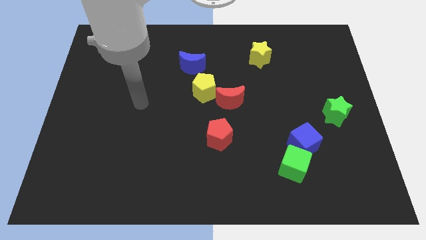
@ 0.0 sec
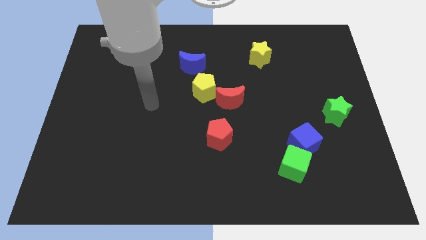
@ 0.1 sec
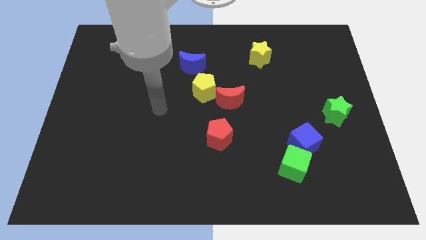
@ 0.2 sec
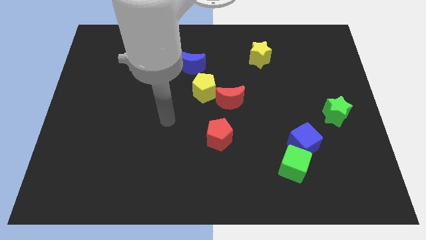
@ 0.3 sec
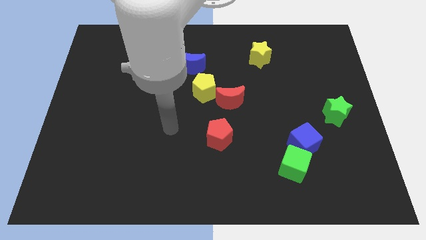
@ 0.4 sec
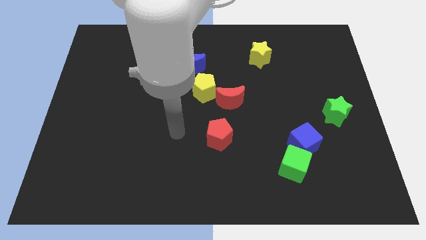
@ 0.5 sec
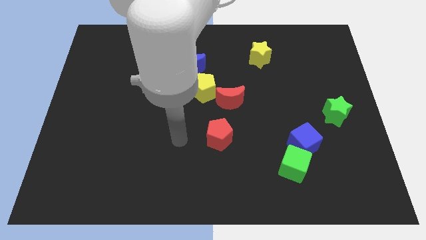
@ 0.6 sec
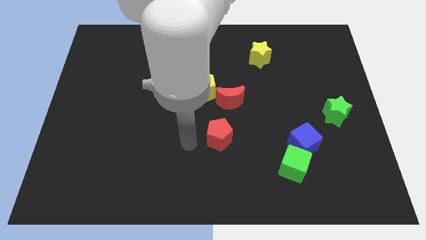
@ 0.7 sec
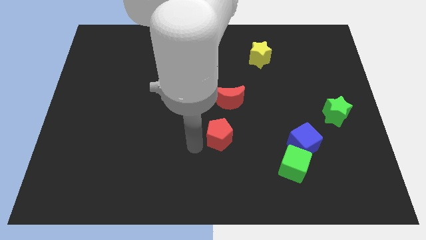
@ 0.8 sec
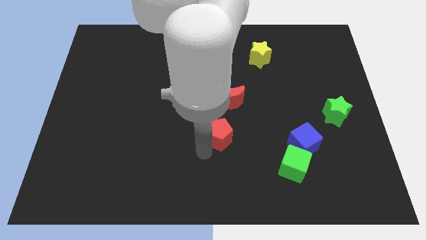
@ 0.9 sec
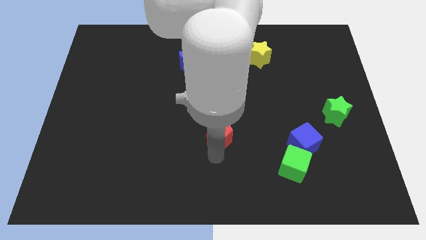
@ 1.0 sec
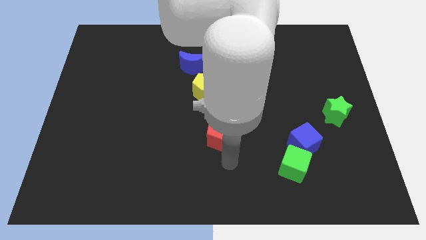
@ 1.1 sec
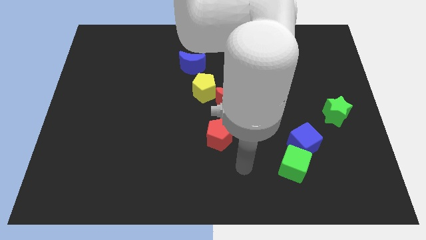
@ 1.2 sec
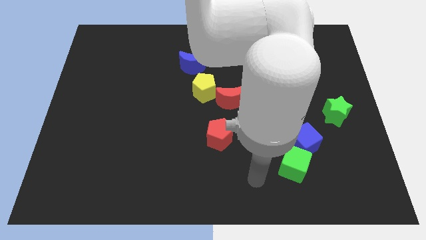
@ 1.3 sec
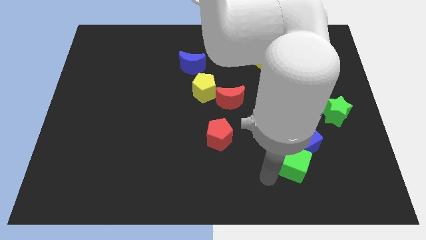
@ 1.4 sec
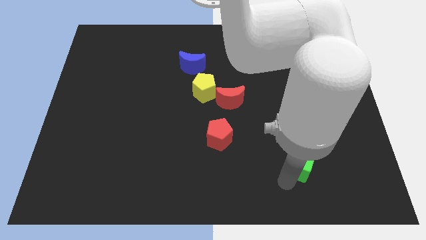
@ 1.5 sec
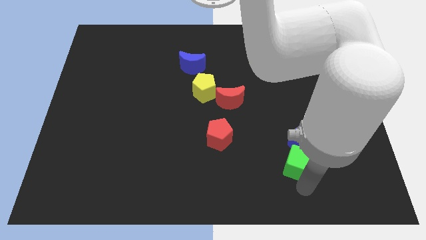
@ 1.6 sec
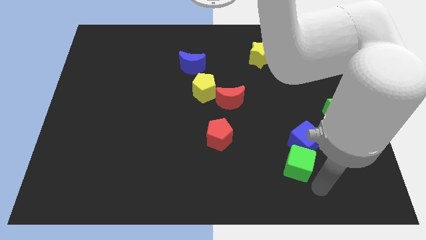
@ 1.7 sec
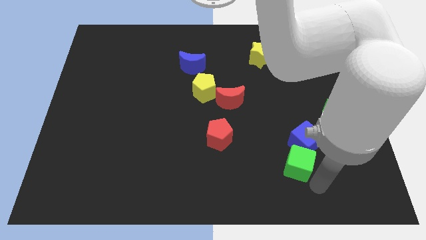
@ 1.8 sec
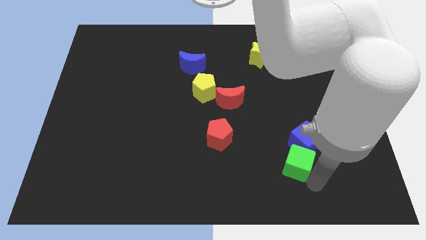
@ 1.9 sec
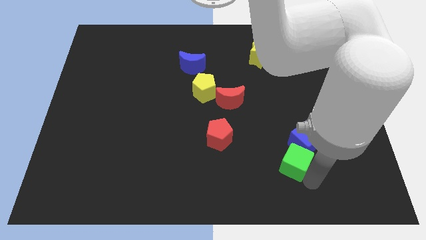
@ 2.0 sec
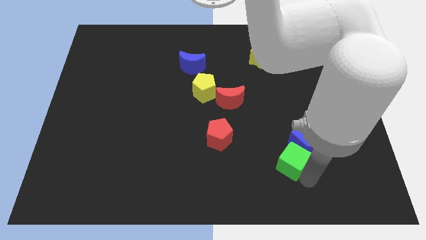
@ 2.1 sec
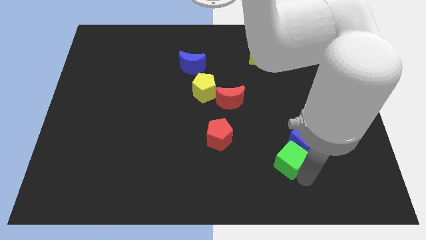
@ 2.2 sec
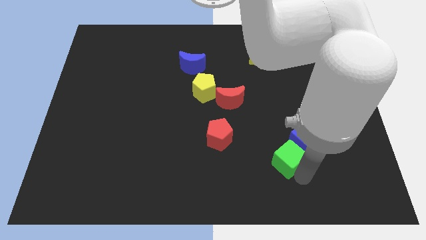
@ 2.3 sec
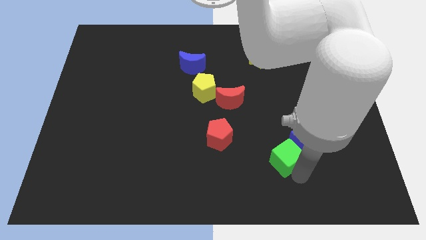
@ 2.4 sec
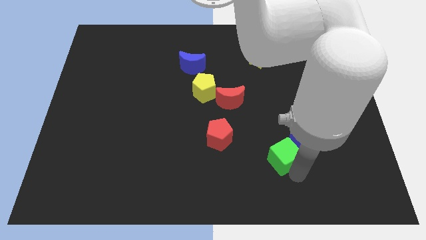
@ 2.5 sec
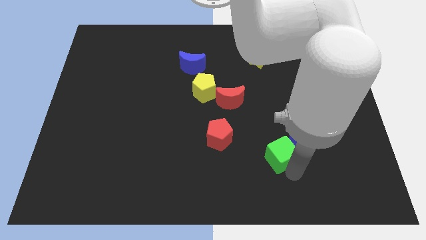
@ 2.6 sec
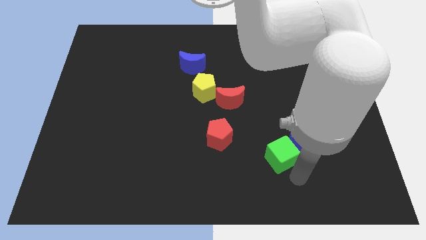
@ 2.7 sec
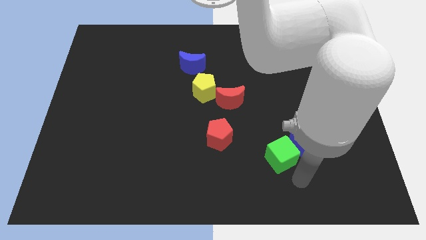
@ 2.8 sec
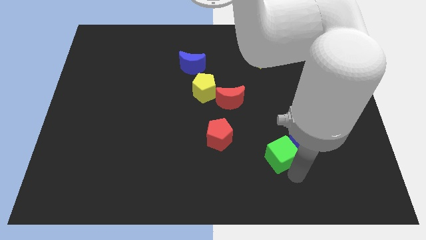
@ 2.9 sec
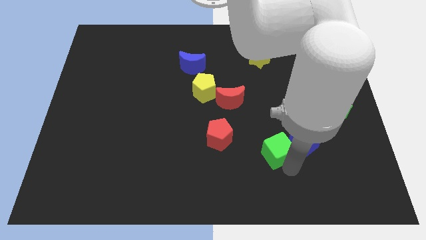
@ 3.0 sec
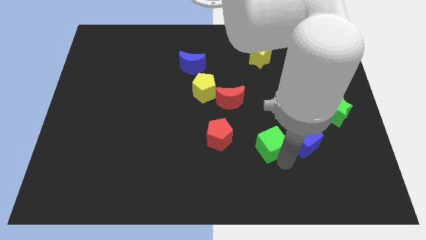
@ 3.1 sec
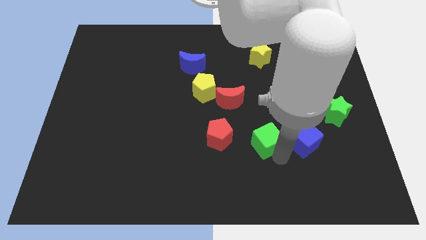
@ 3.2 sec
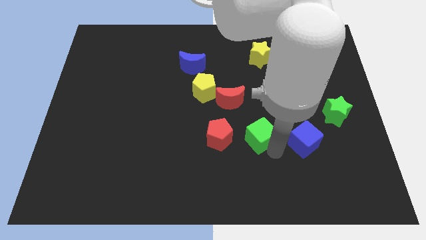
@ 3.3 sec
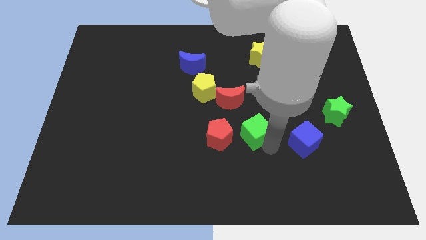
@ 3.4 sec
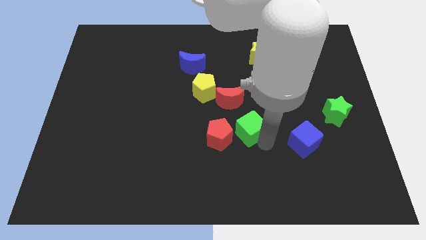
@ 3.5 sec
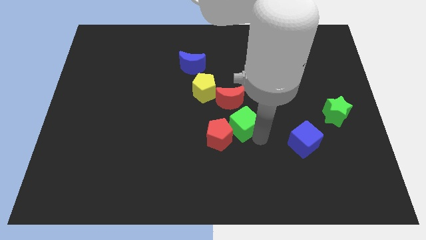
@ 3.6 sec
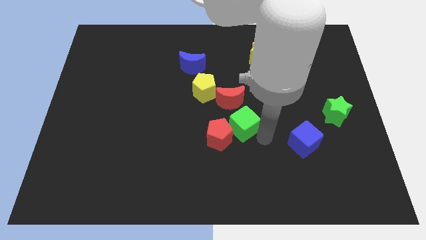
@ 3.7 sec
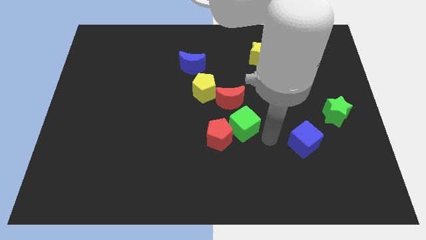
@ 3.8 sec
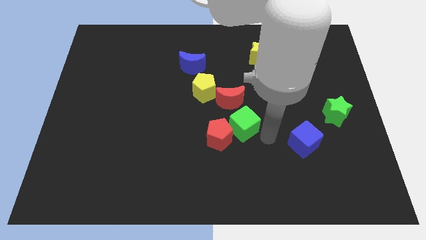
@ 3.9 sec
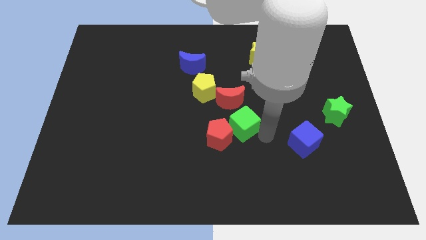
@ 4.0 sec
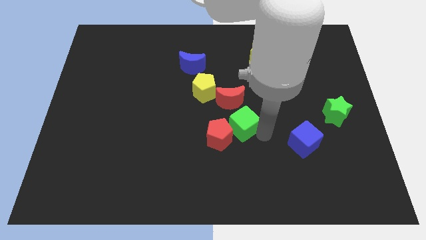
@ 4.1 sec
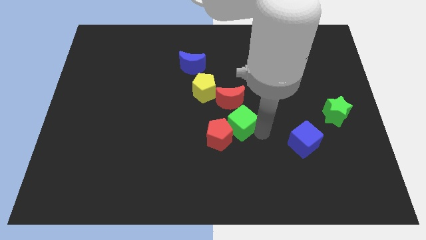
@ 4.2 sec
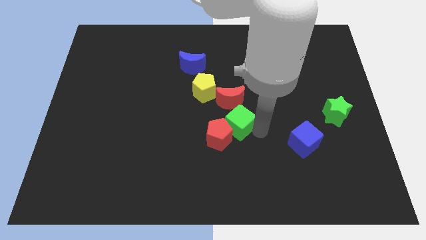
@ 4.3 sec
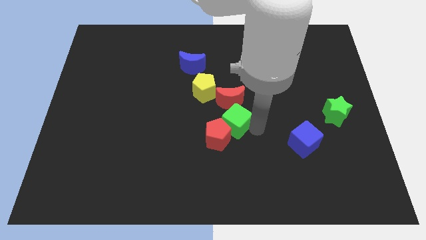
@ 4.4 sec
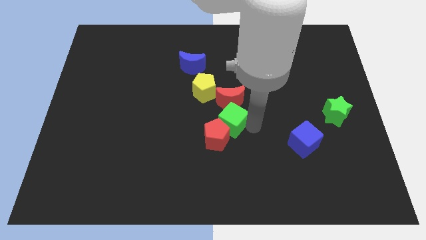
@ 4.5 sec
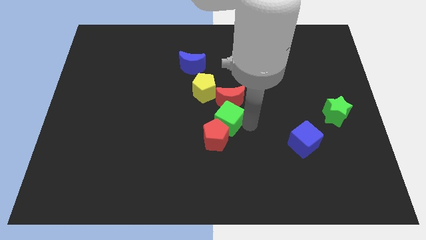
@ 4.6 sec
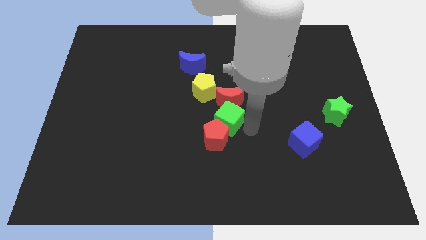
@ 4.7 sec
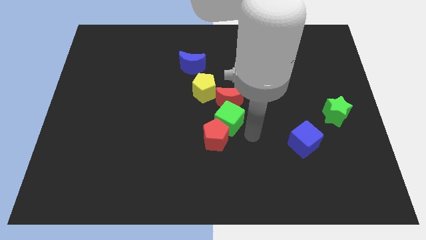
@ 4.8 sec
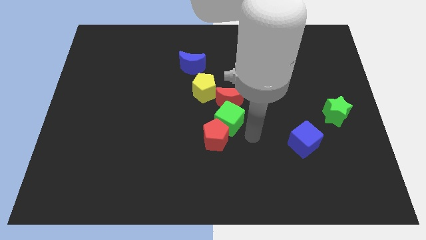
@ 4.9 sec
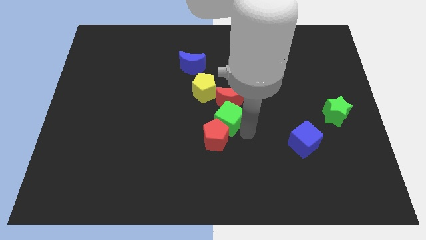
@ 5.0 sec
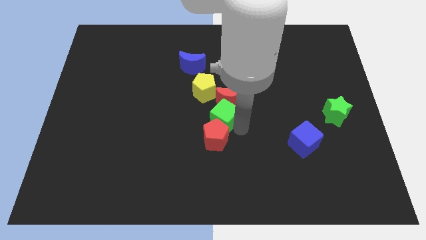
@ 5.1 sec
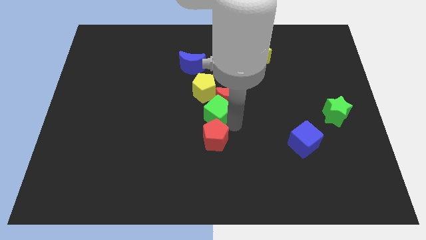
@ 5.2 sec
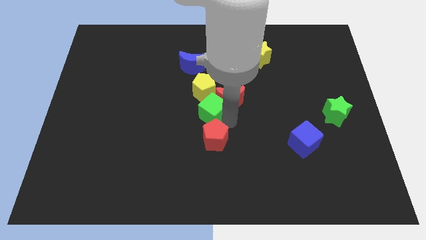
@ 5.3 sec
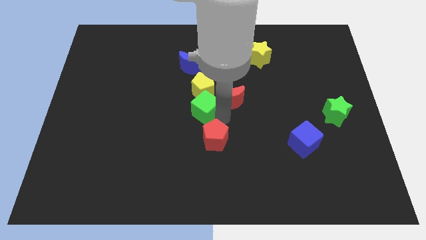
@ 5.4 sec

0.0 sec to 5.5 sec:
push the green cube to the bottom side of the blue moon

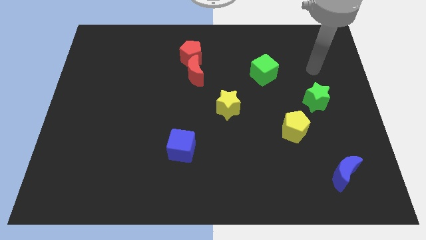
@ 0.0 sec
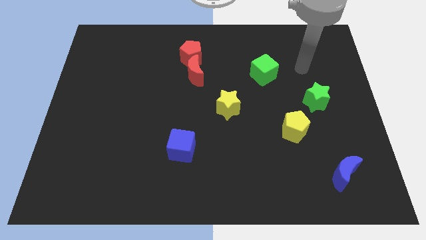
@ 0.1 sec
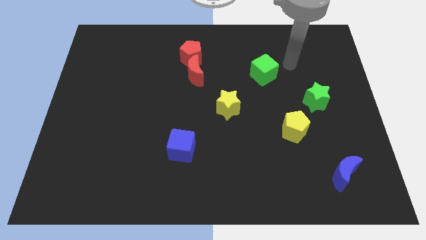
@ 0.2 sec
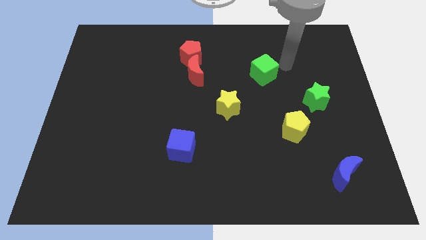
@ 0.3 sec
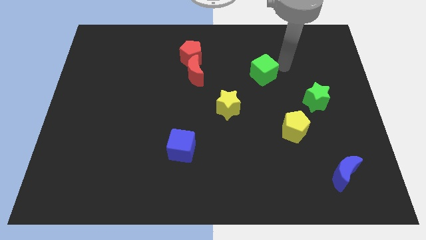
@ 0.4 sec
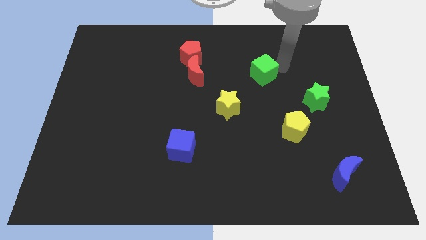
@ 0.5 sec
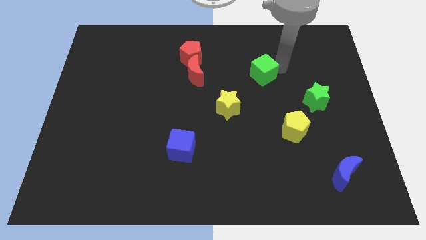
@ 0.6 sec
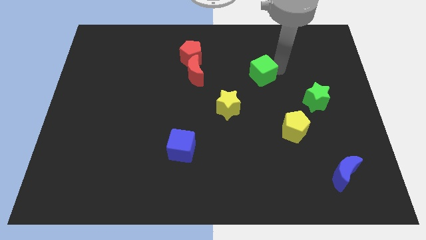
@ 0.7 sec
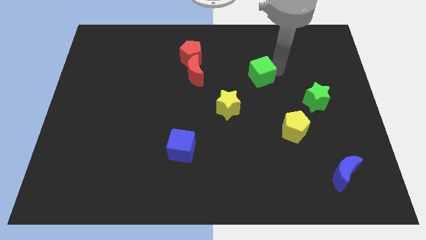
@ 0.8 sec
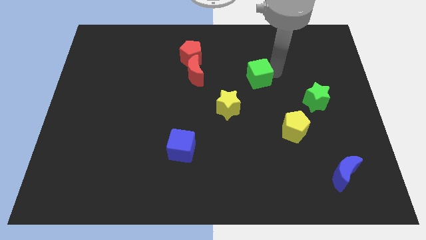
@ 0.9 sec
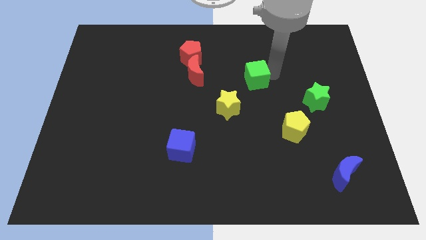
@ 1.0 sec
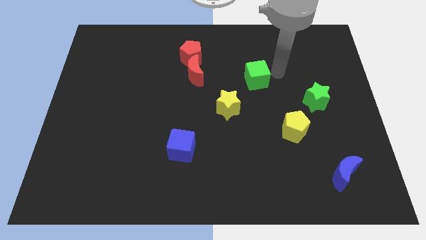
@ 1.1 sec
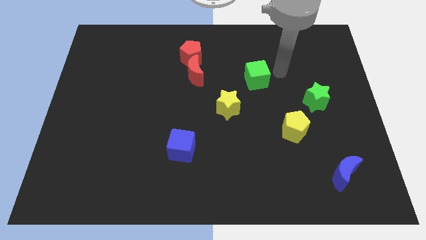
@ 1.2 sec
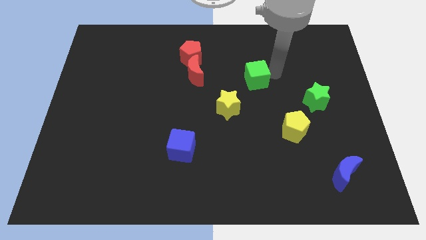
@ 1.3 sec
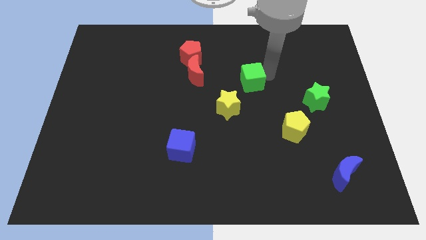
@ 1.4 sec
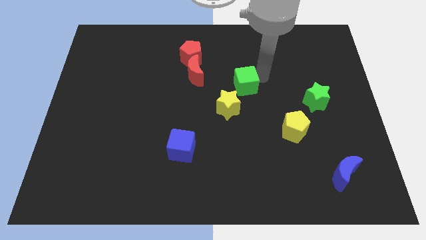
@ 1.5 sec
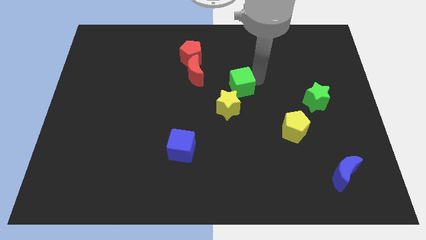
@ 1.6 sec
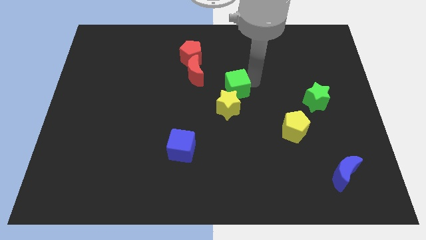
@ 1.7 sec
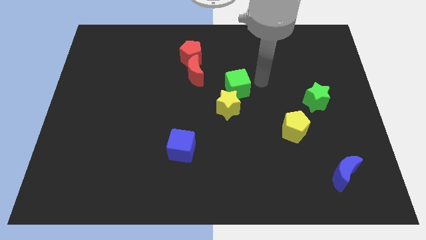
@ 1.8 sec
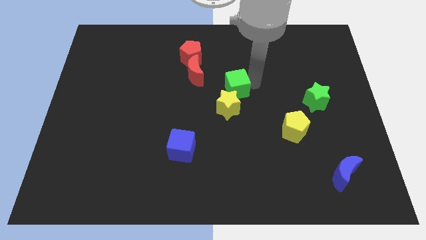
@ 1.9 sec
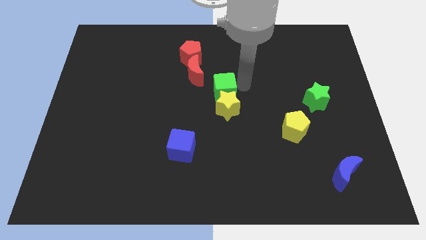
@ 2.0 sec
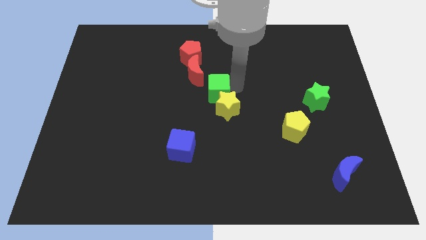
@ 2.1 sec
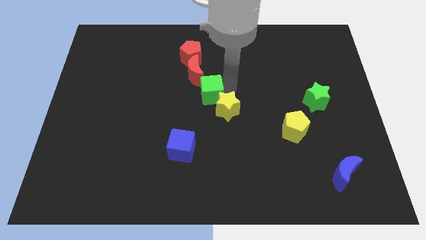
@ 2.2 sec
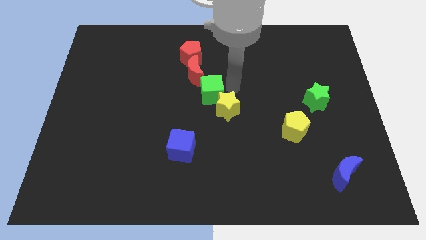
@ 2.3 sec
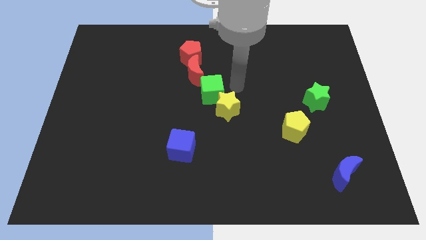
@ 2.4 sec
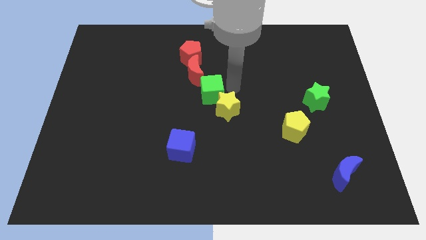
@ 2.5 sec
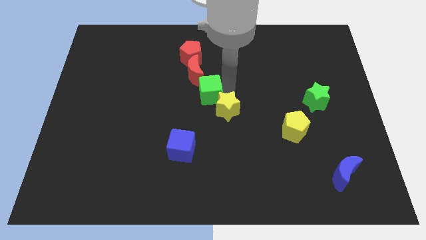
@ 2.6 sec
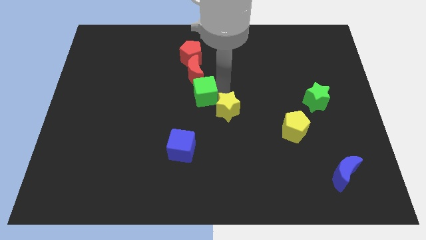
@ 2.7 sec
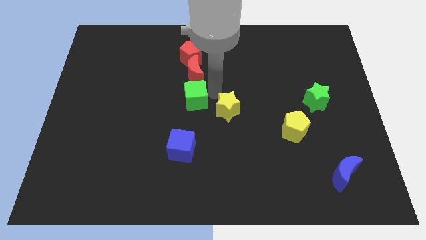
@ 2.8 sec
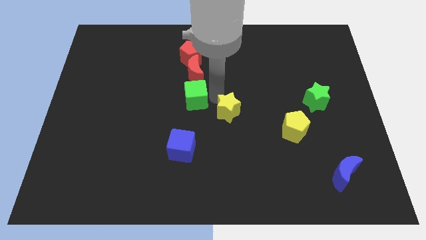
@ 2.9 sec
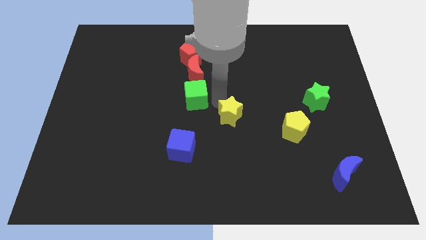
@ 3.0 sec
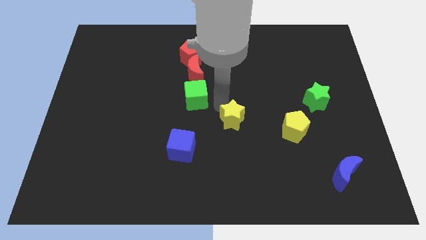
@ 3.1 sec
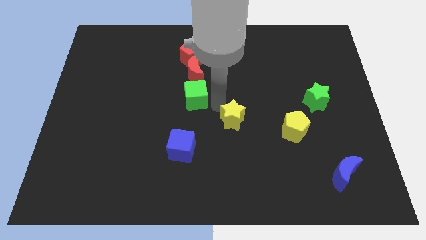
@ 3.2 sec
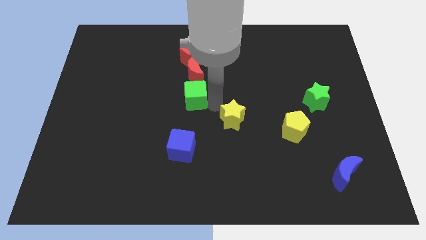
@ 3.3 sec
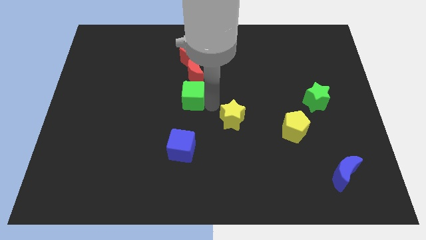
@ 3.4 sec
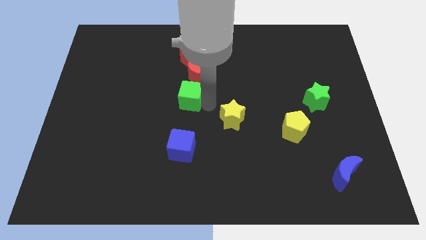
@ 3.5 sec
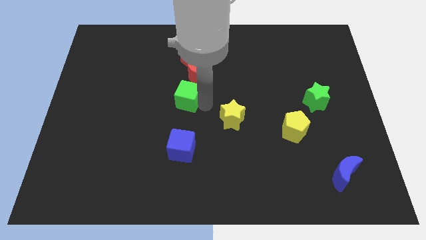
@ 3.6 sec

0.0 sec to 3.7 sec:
push the green cube to the bottom left side of the red moon
